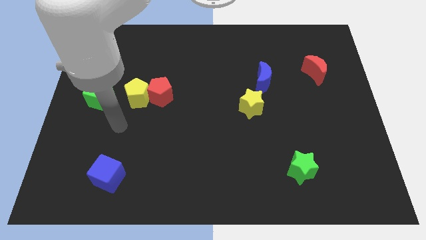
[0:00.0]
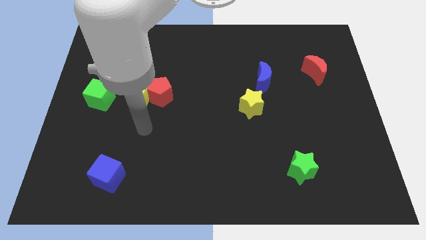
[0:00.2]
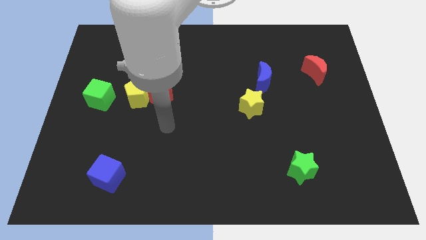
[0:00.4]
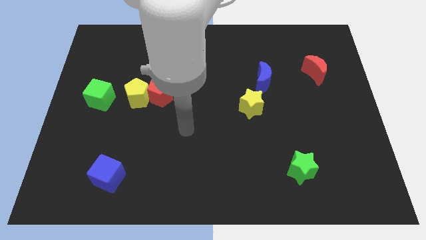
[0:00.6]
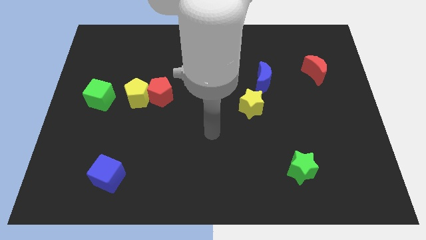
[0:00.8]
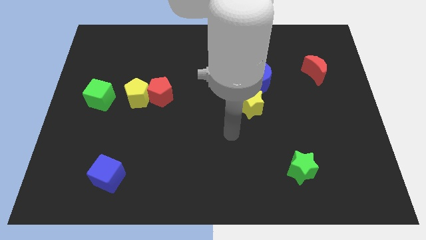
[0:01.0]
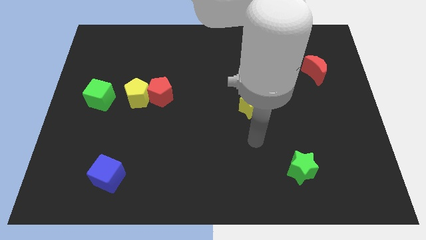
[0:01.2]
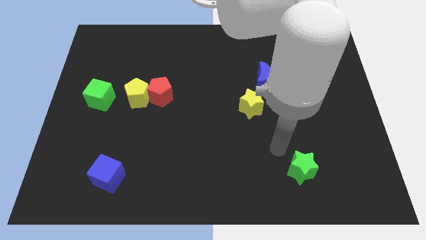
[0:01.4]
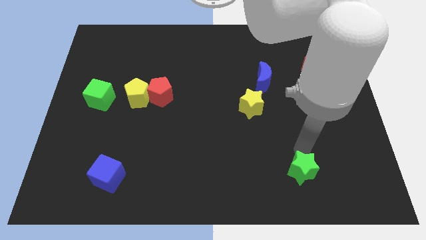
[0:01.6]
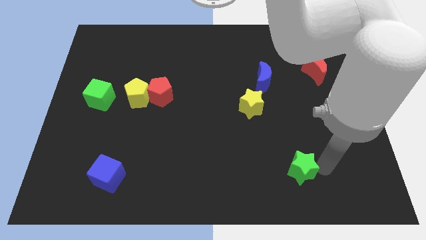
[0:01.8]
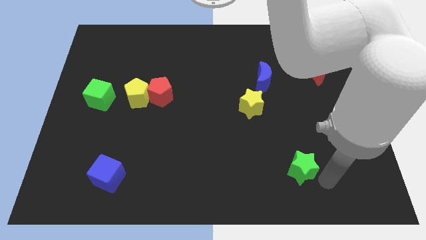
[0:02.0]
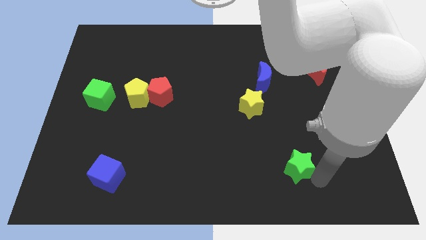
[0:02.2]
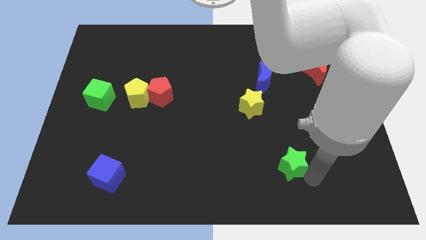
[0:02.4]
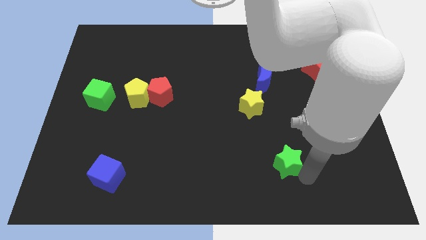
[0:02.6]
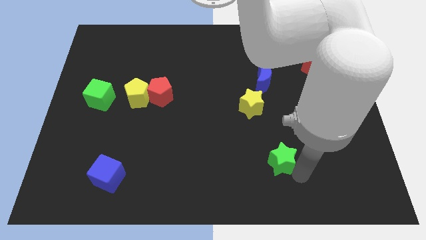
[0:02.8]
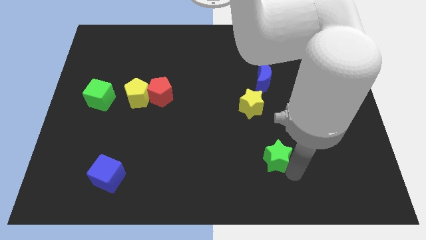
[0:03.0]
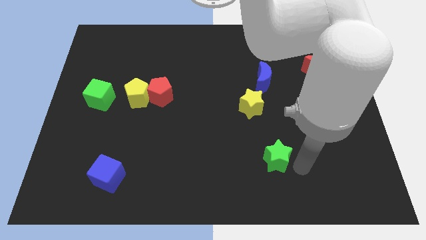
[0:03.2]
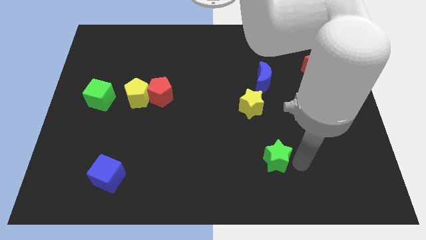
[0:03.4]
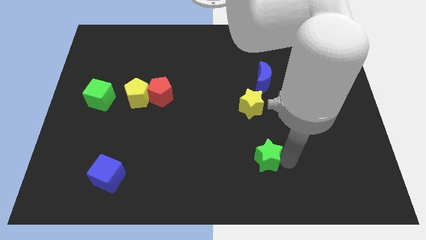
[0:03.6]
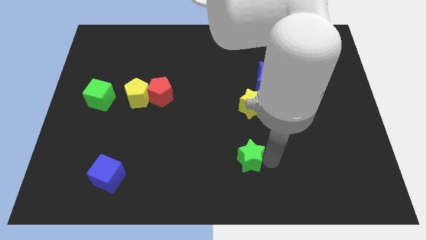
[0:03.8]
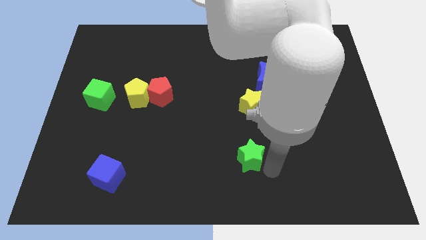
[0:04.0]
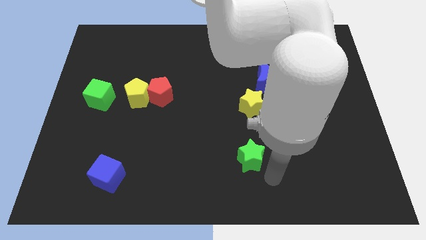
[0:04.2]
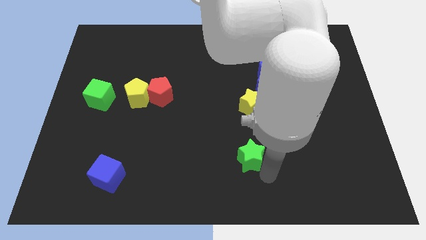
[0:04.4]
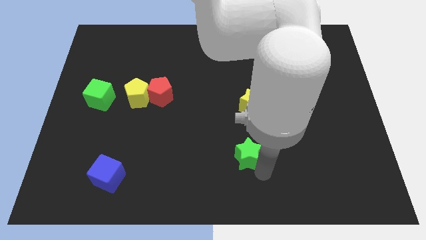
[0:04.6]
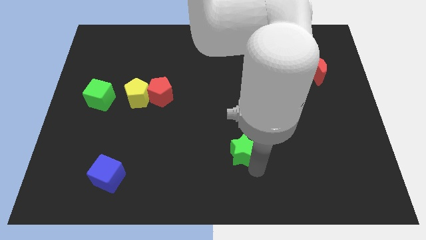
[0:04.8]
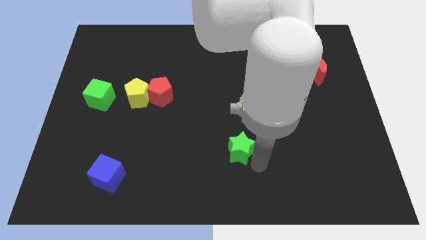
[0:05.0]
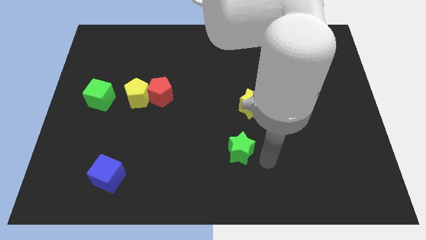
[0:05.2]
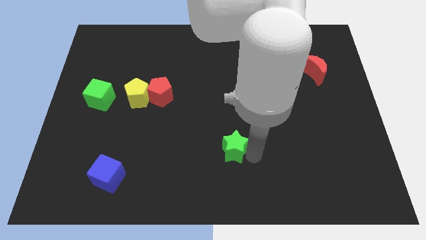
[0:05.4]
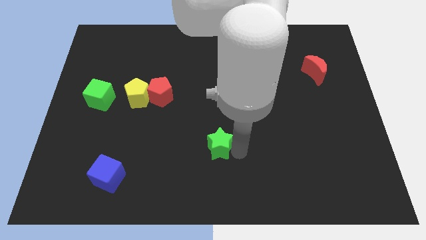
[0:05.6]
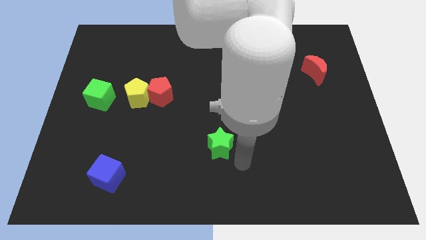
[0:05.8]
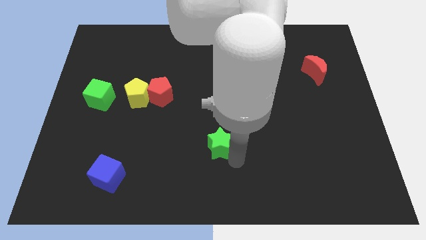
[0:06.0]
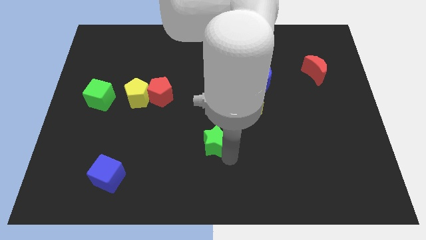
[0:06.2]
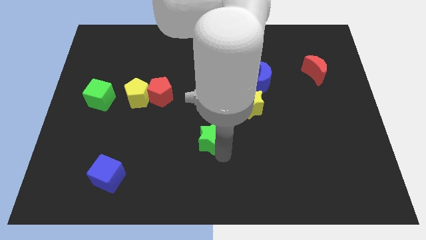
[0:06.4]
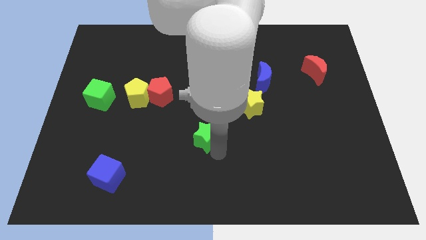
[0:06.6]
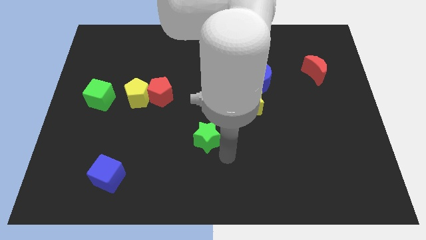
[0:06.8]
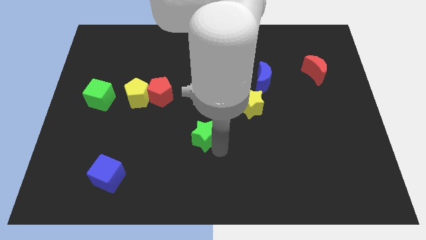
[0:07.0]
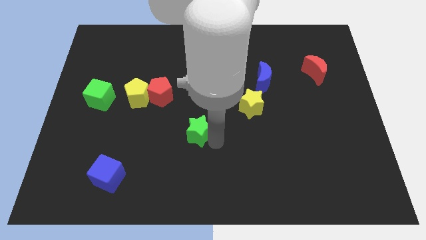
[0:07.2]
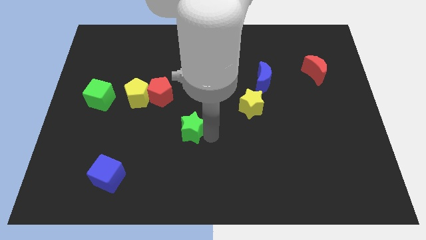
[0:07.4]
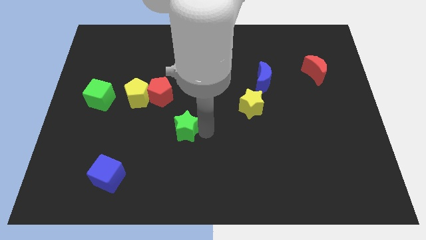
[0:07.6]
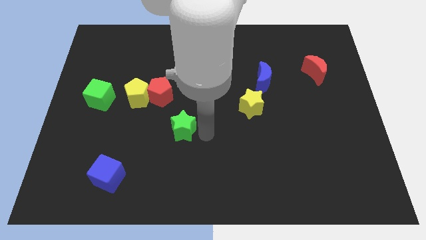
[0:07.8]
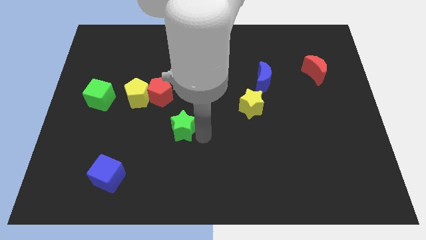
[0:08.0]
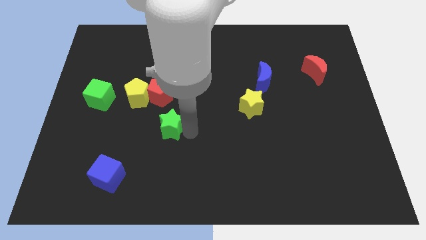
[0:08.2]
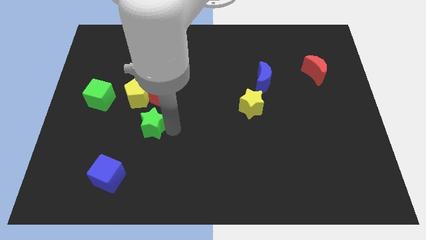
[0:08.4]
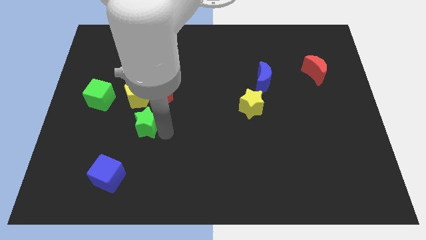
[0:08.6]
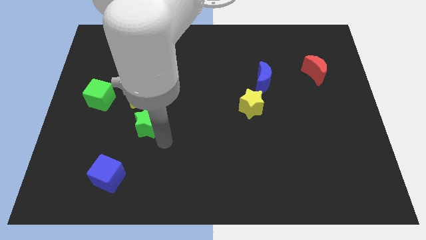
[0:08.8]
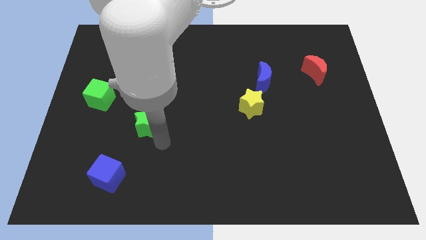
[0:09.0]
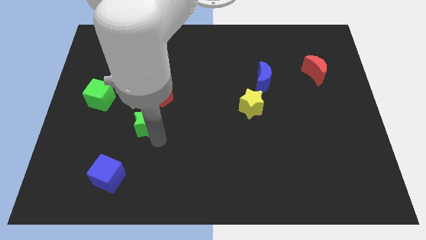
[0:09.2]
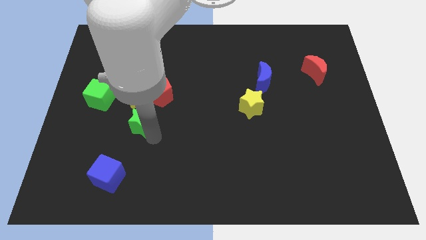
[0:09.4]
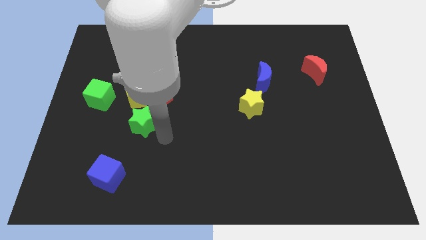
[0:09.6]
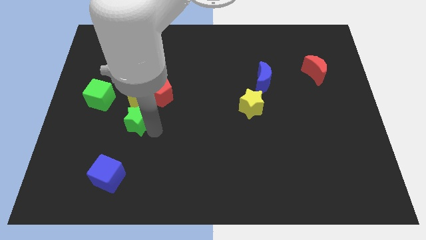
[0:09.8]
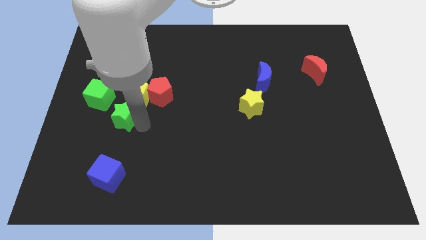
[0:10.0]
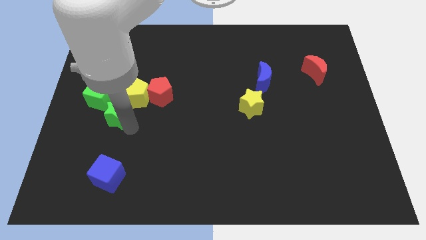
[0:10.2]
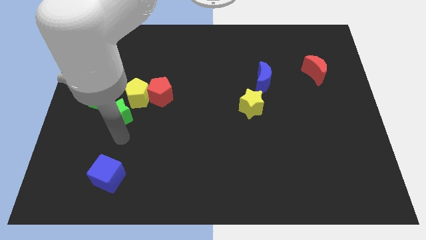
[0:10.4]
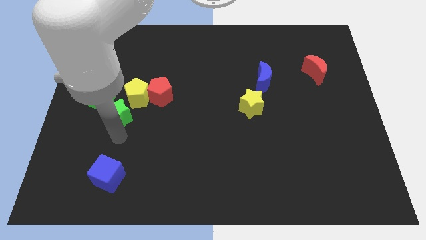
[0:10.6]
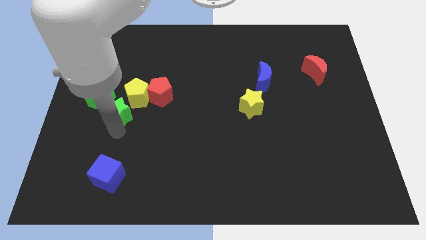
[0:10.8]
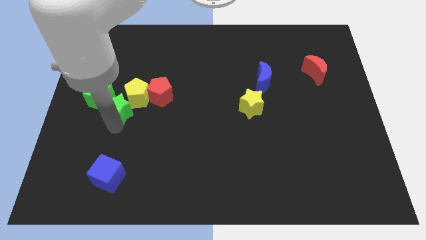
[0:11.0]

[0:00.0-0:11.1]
slide the green star left of the red pentagon

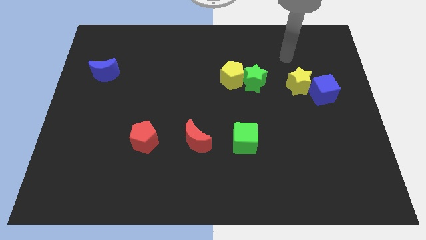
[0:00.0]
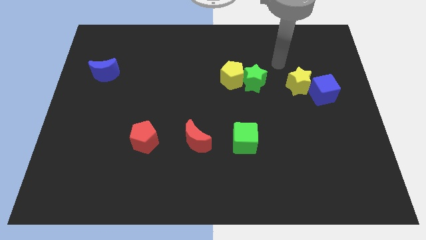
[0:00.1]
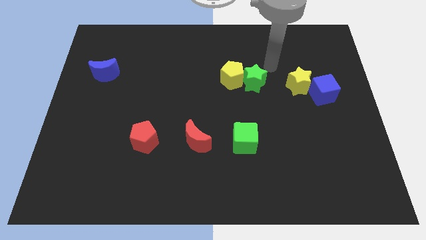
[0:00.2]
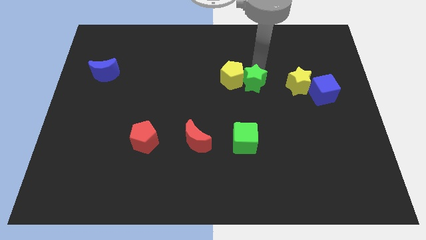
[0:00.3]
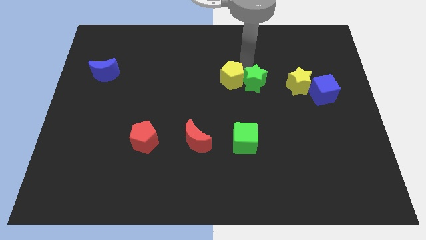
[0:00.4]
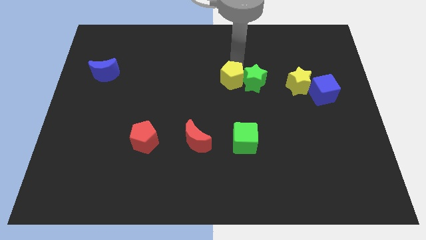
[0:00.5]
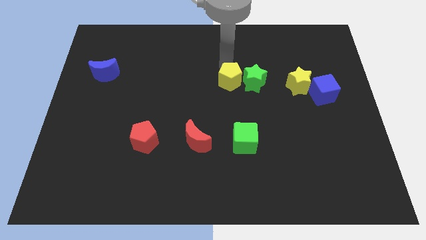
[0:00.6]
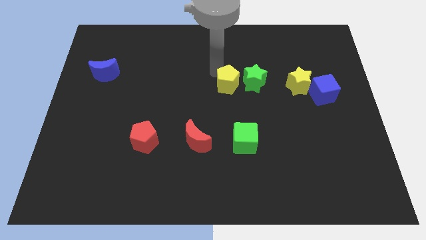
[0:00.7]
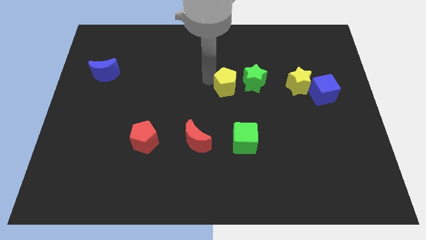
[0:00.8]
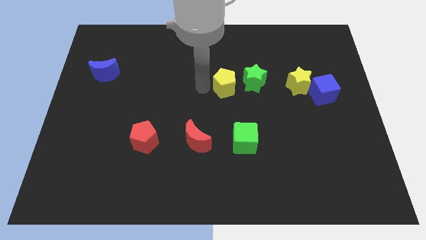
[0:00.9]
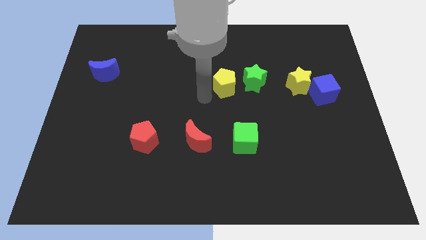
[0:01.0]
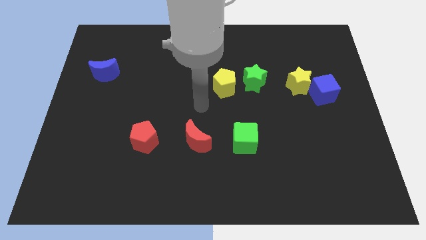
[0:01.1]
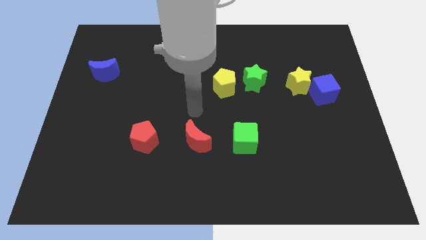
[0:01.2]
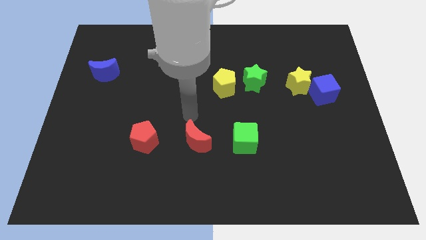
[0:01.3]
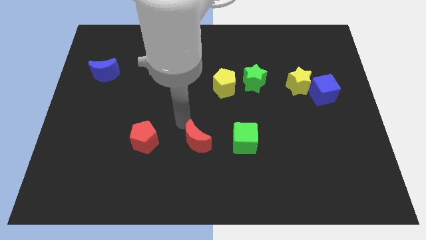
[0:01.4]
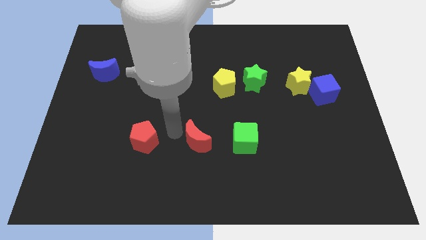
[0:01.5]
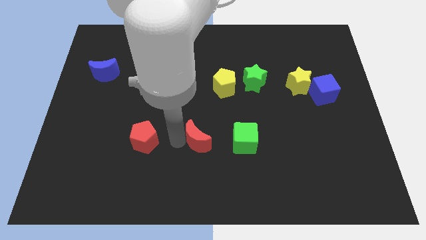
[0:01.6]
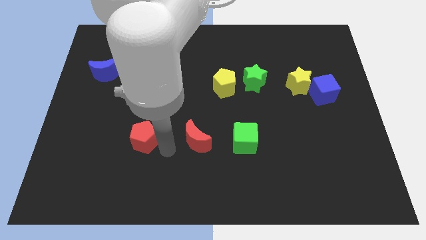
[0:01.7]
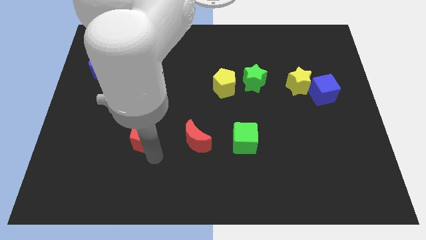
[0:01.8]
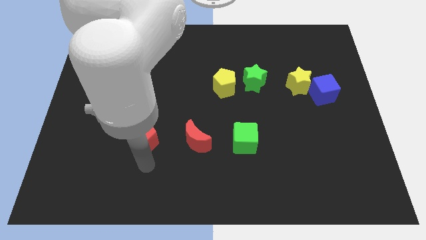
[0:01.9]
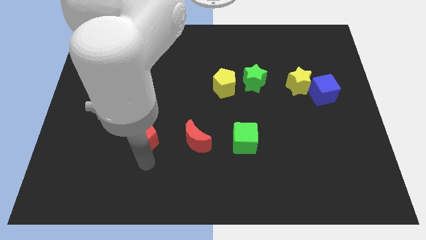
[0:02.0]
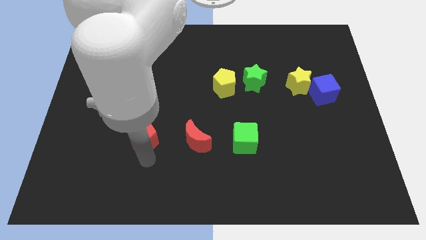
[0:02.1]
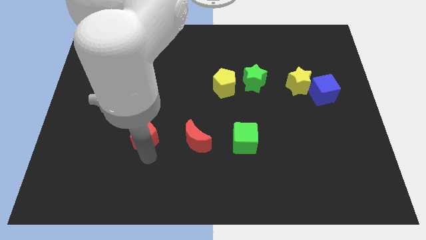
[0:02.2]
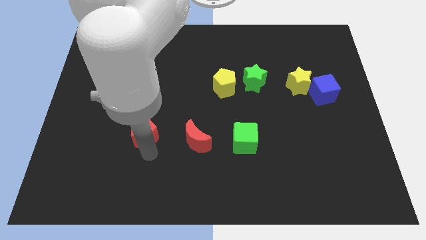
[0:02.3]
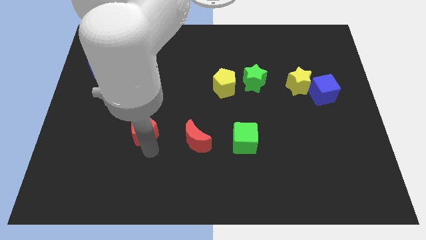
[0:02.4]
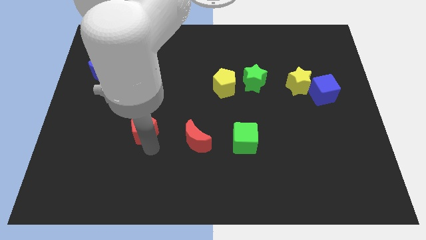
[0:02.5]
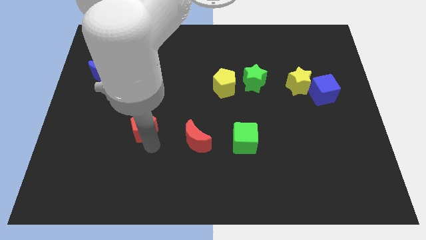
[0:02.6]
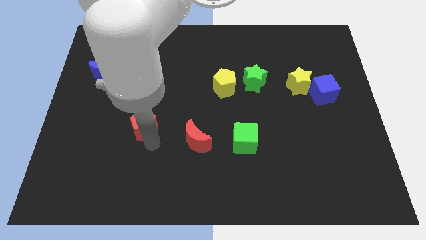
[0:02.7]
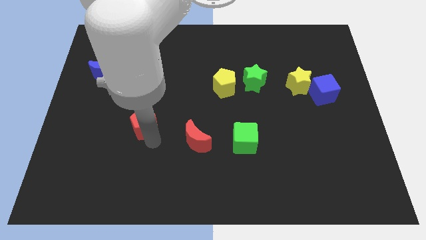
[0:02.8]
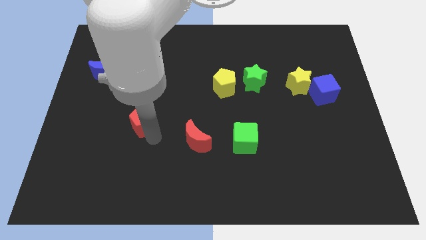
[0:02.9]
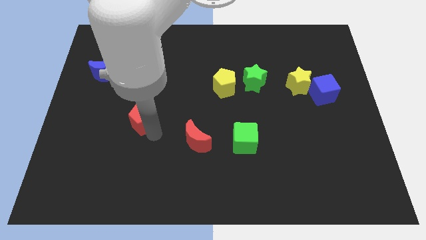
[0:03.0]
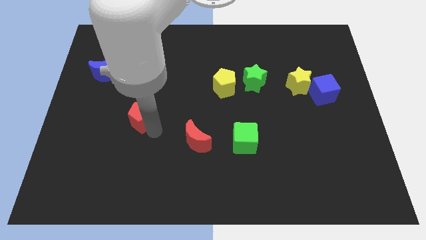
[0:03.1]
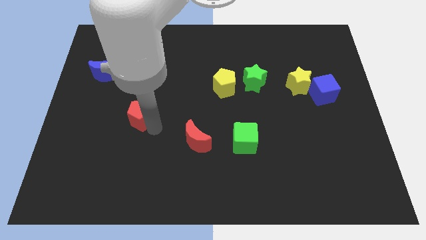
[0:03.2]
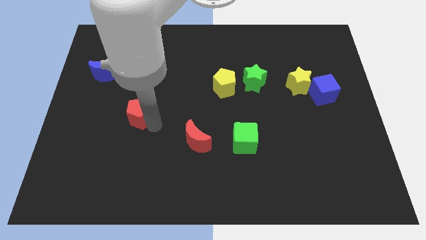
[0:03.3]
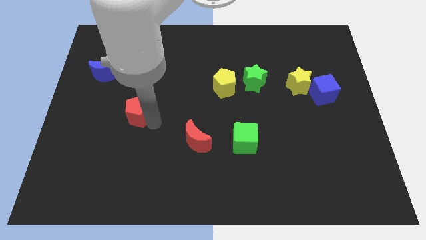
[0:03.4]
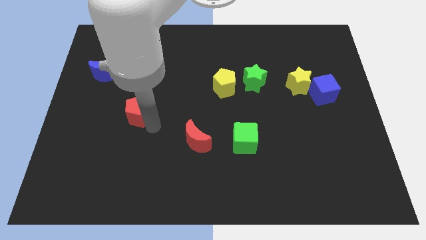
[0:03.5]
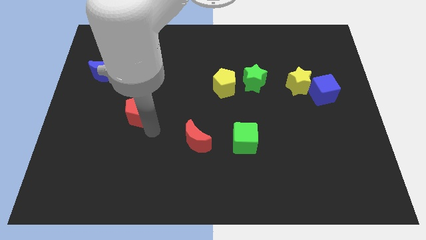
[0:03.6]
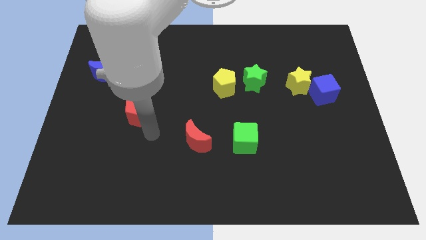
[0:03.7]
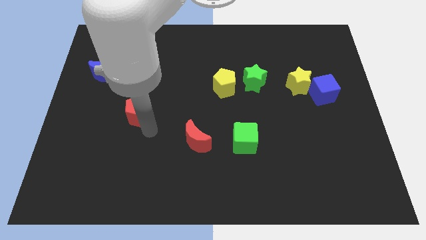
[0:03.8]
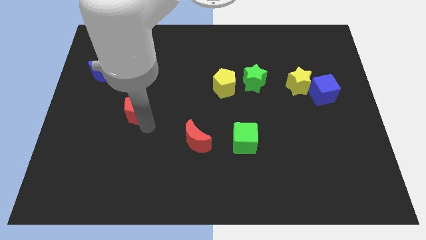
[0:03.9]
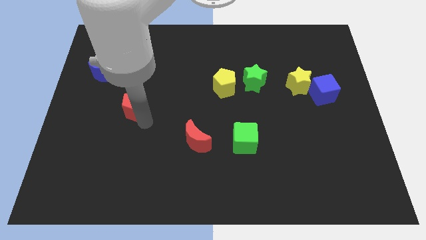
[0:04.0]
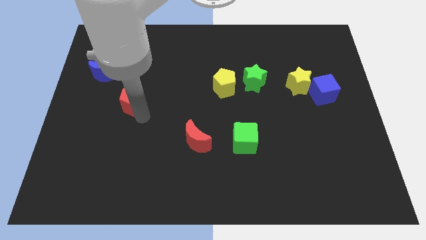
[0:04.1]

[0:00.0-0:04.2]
move the red pentagon to the bottom right side of the blue moon
